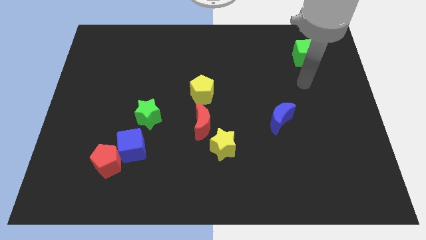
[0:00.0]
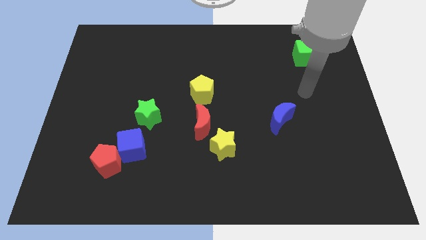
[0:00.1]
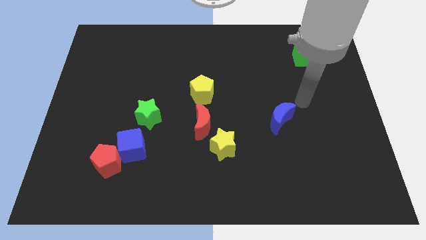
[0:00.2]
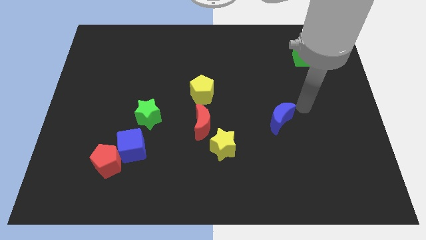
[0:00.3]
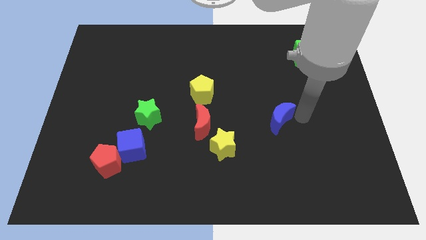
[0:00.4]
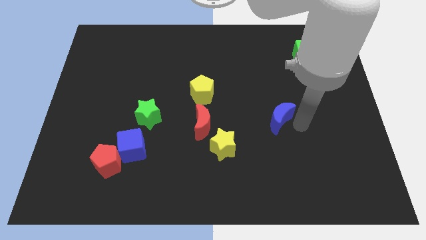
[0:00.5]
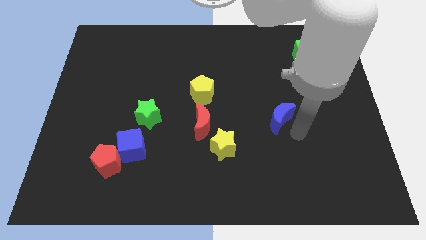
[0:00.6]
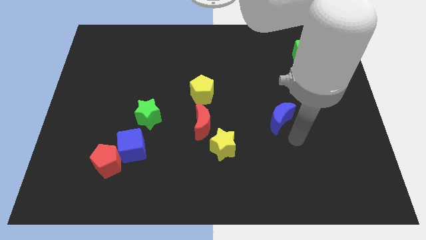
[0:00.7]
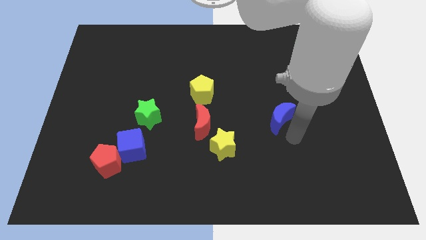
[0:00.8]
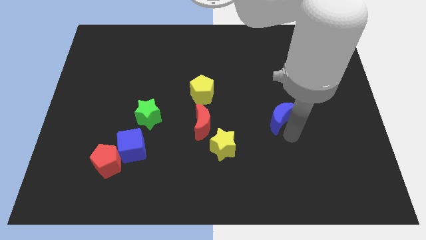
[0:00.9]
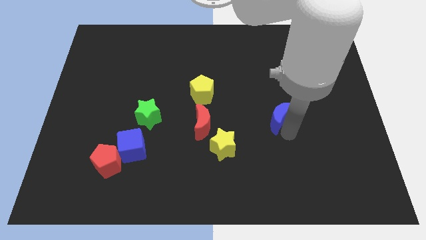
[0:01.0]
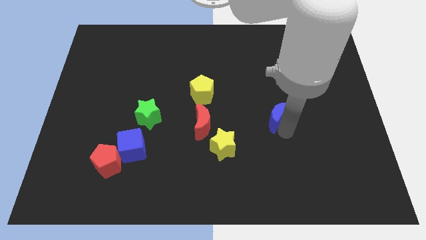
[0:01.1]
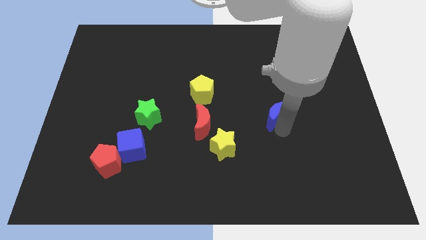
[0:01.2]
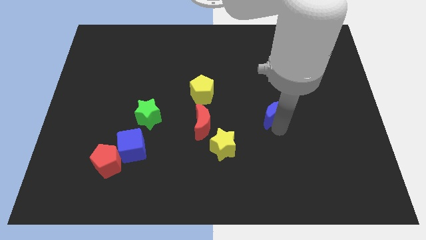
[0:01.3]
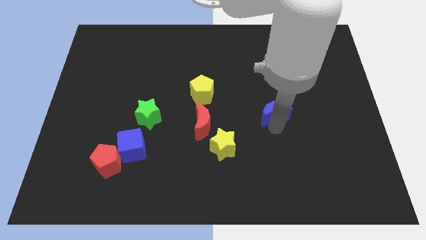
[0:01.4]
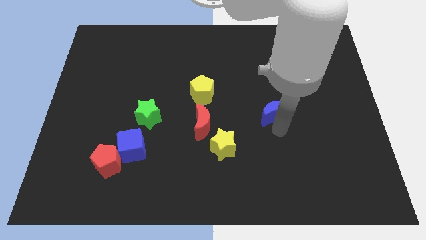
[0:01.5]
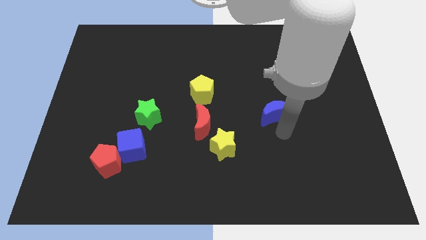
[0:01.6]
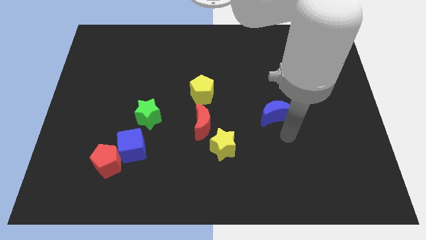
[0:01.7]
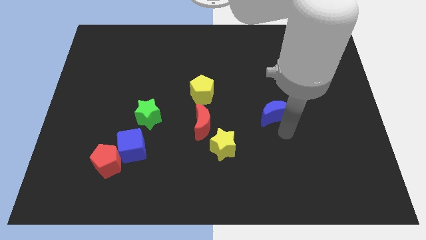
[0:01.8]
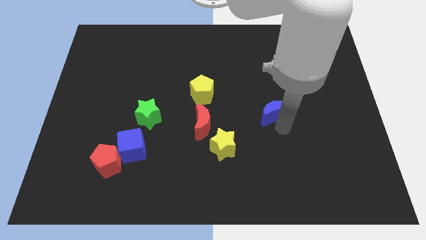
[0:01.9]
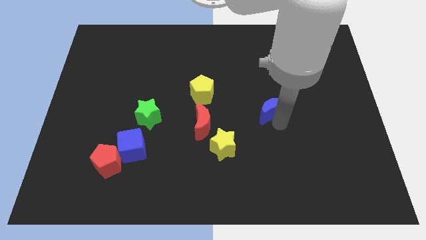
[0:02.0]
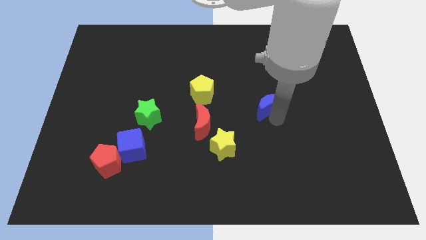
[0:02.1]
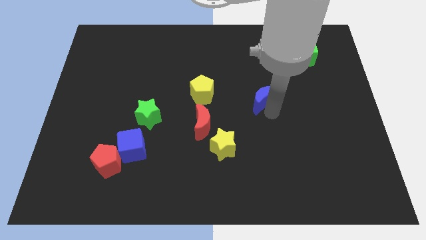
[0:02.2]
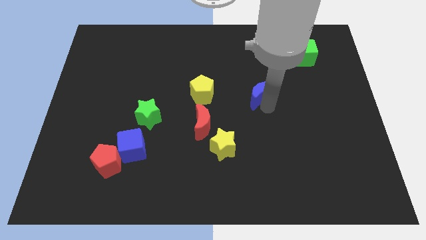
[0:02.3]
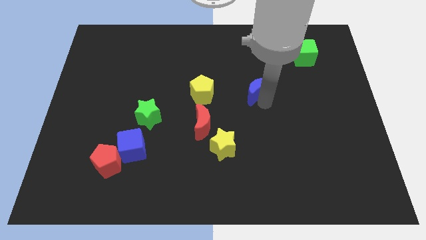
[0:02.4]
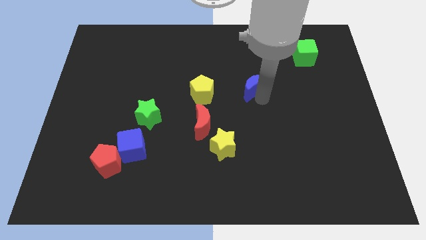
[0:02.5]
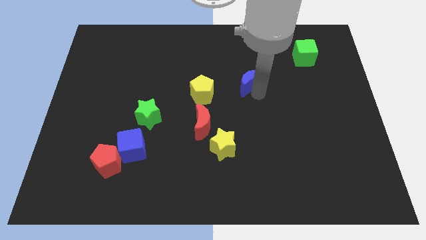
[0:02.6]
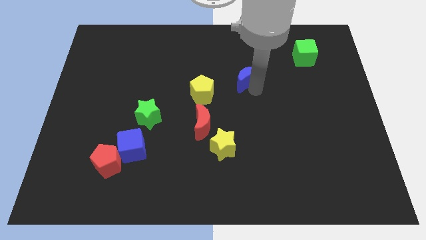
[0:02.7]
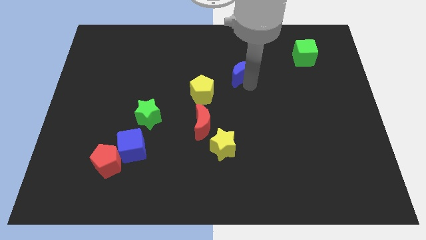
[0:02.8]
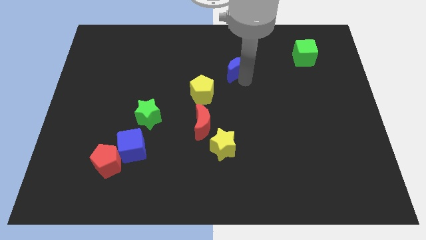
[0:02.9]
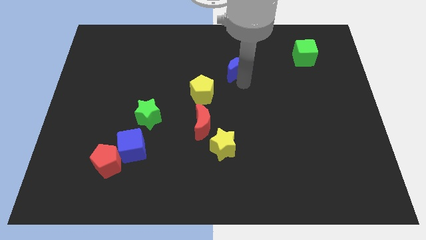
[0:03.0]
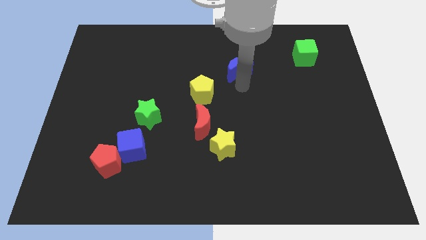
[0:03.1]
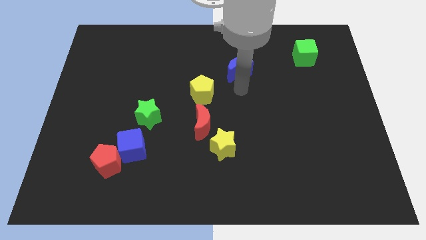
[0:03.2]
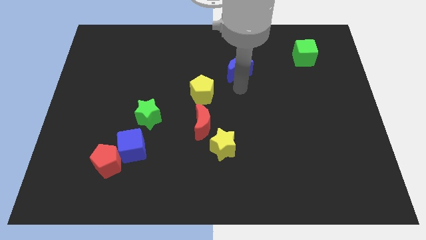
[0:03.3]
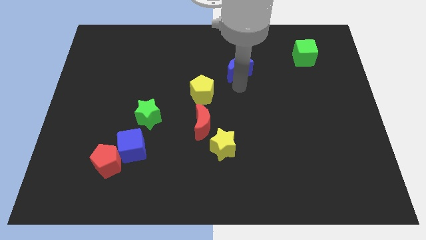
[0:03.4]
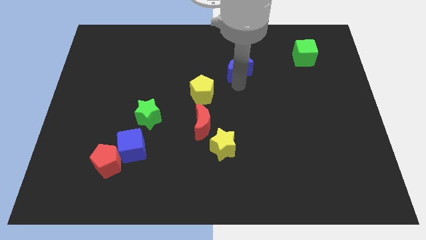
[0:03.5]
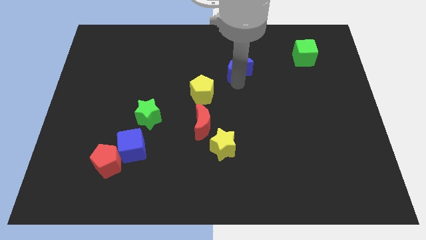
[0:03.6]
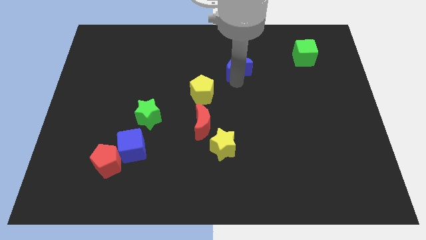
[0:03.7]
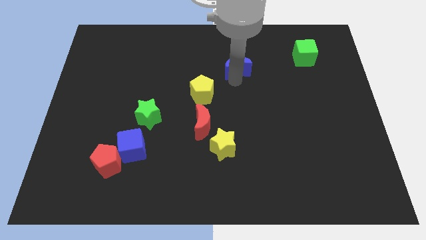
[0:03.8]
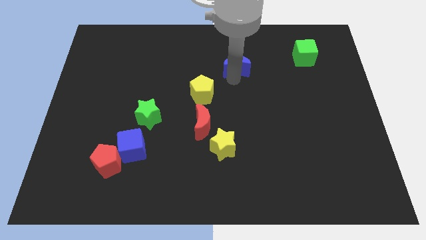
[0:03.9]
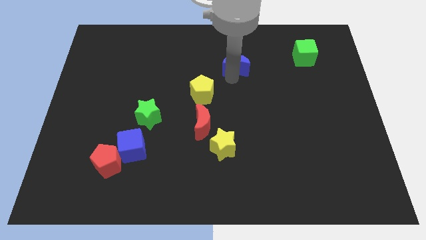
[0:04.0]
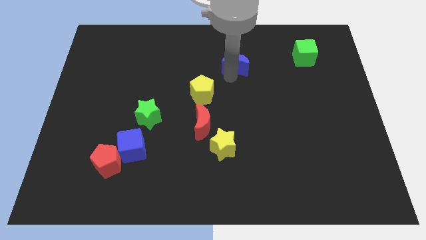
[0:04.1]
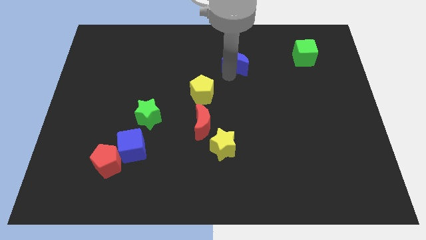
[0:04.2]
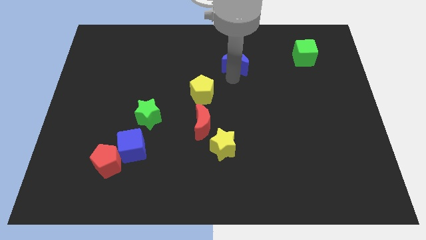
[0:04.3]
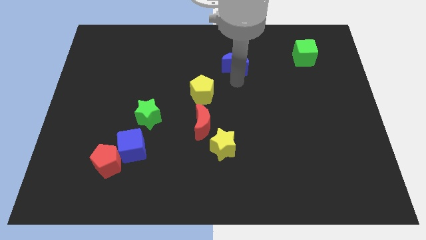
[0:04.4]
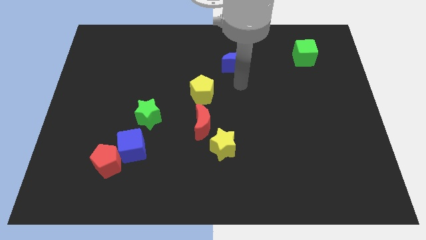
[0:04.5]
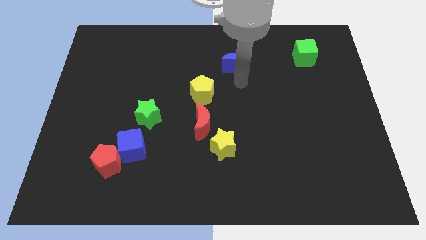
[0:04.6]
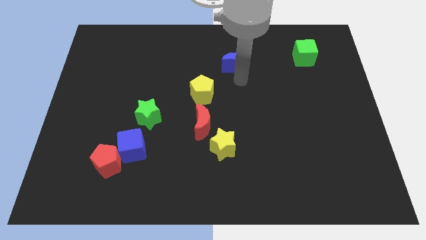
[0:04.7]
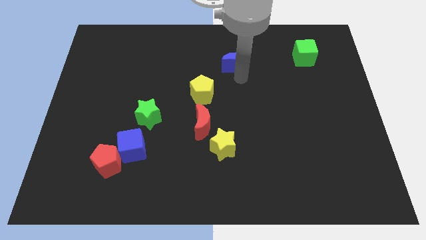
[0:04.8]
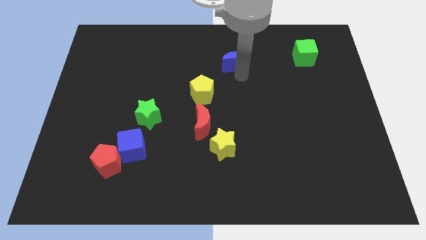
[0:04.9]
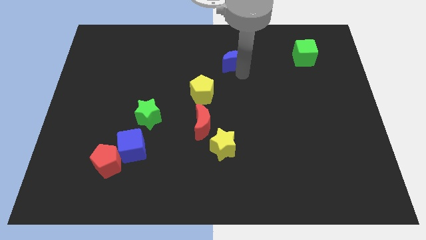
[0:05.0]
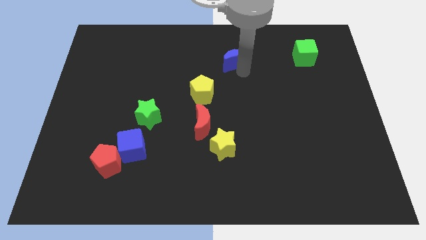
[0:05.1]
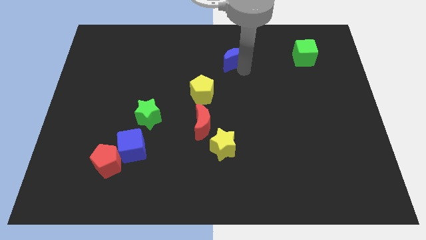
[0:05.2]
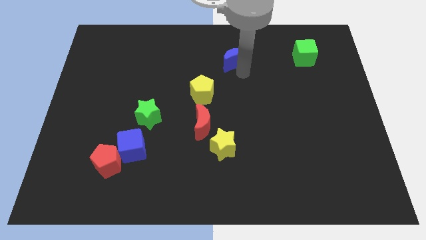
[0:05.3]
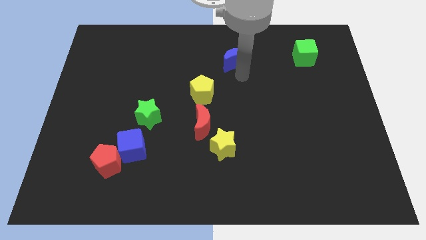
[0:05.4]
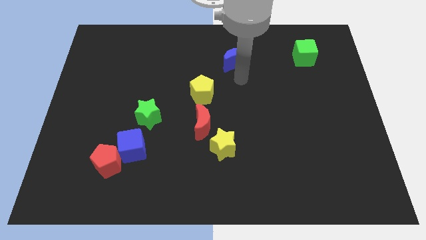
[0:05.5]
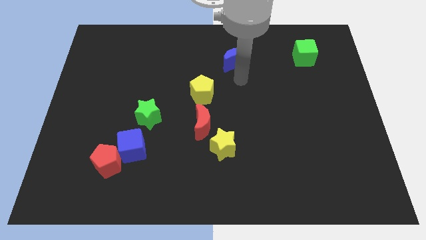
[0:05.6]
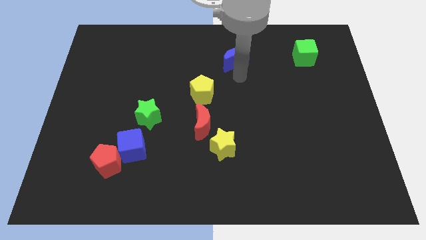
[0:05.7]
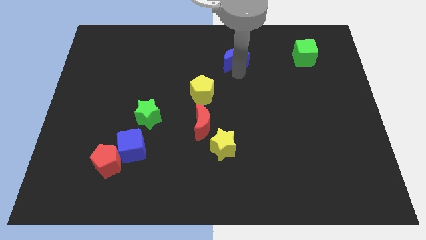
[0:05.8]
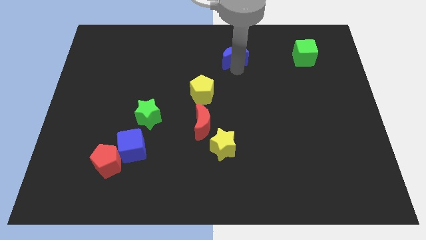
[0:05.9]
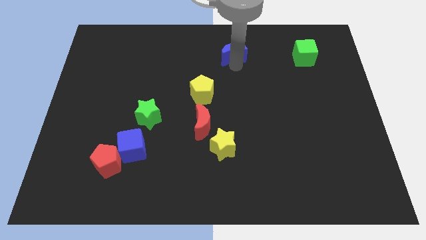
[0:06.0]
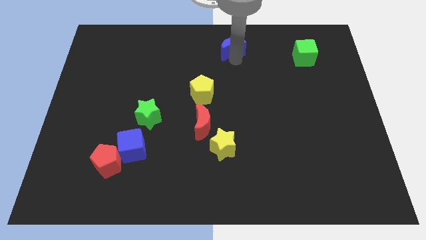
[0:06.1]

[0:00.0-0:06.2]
slide the blue moon to the top side

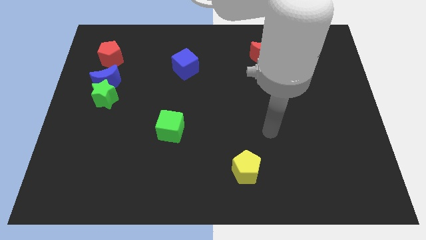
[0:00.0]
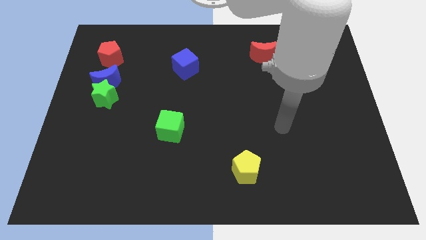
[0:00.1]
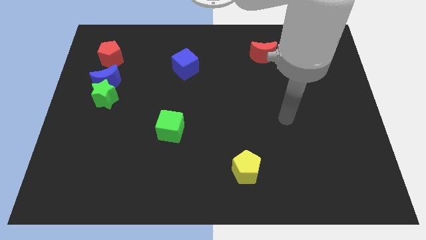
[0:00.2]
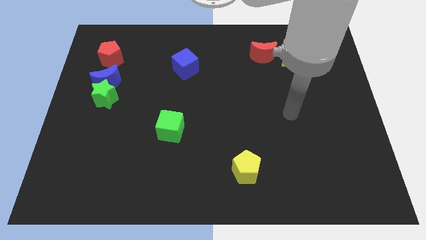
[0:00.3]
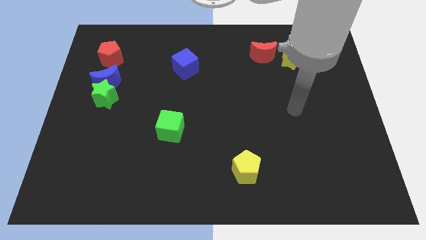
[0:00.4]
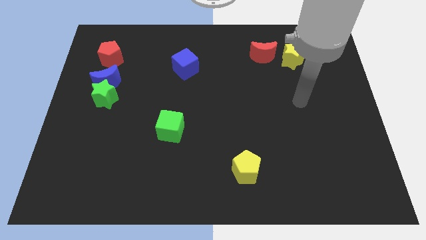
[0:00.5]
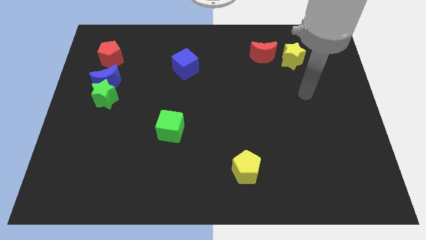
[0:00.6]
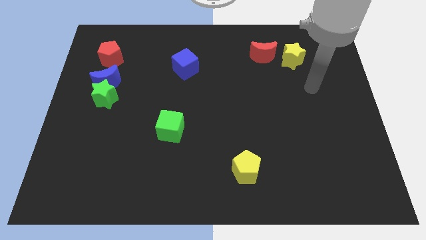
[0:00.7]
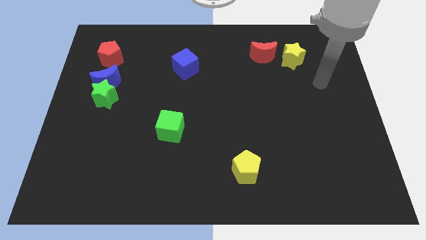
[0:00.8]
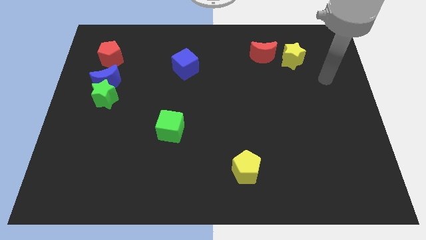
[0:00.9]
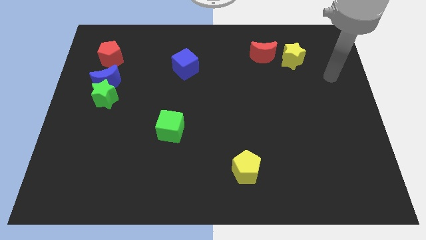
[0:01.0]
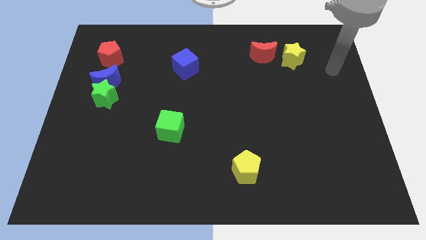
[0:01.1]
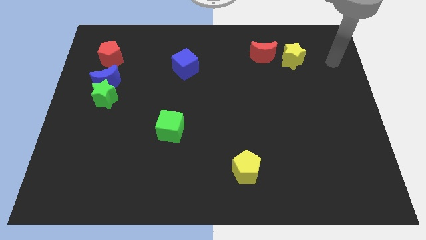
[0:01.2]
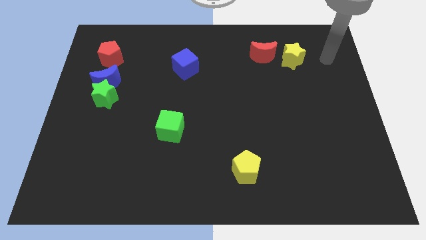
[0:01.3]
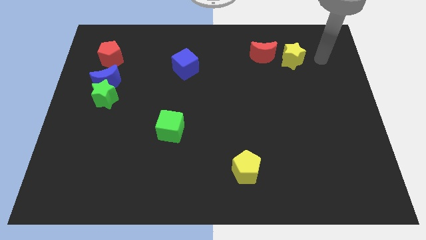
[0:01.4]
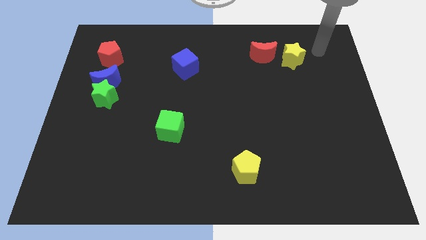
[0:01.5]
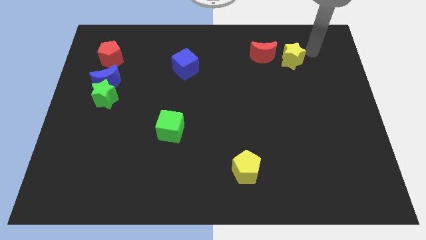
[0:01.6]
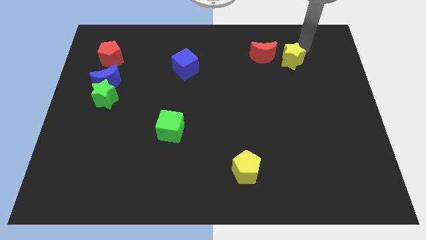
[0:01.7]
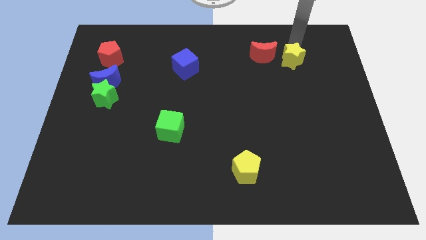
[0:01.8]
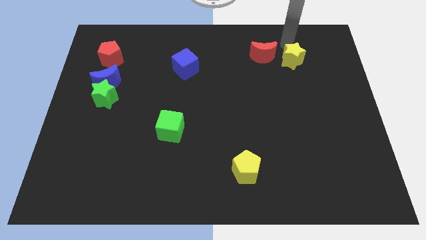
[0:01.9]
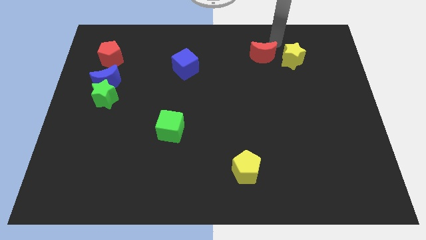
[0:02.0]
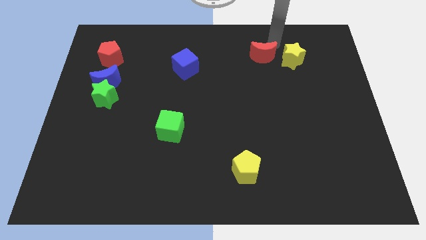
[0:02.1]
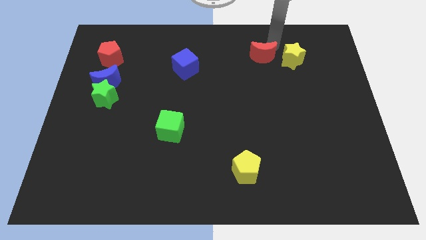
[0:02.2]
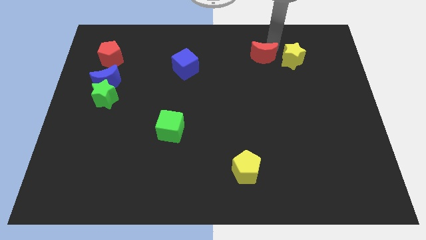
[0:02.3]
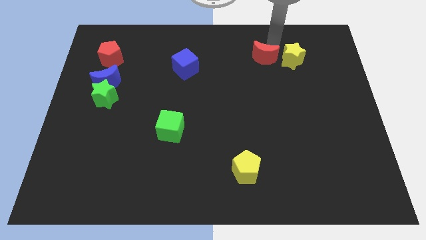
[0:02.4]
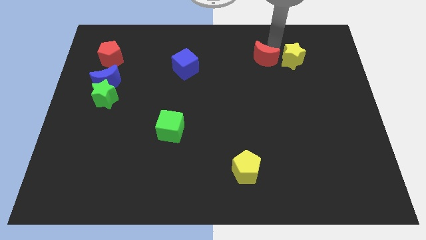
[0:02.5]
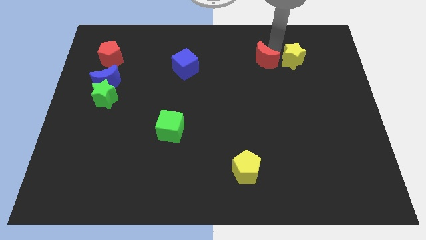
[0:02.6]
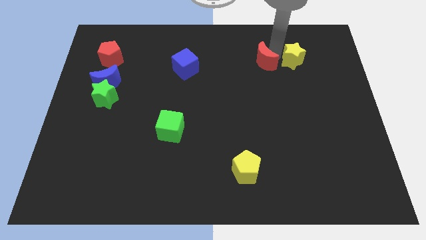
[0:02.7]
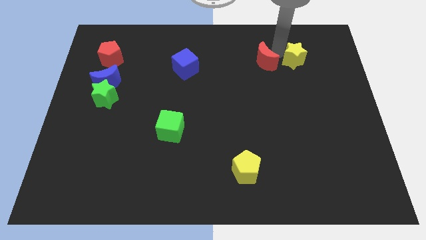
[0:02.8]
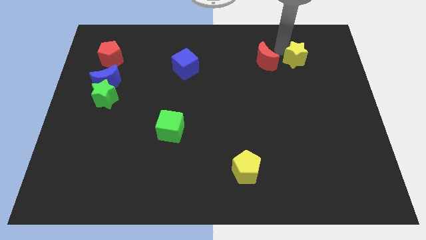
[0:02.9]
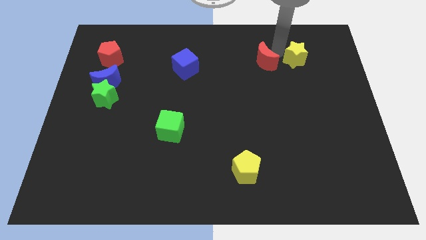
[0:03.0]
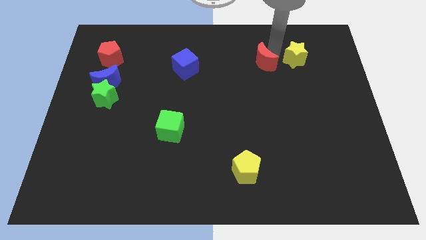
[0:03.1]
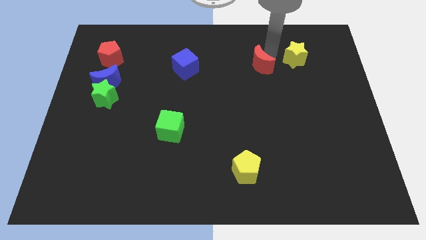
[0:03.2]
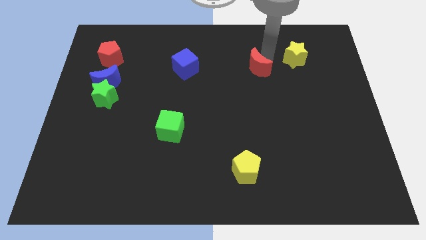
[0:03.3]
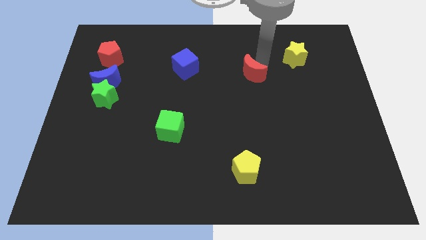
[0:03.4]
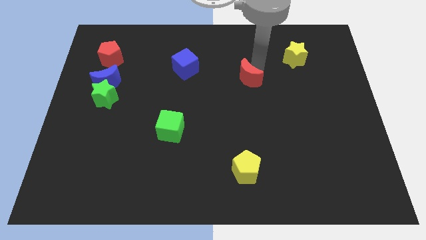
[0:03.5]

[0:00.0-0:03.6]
put the red moon to the center
